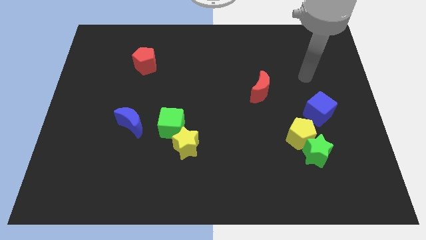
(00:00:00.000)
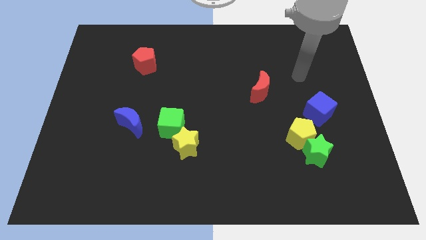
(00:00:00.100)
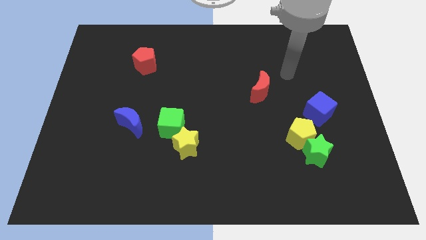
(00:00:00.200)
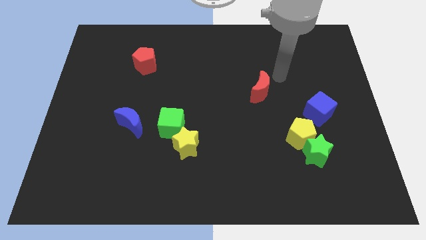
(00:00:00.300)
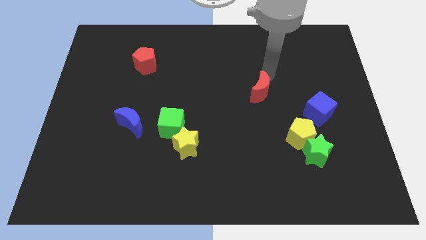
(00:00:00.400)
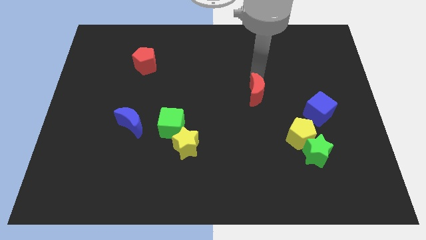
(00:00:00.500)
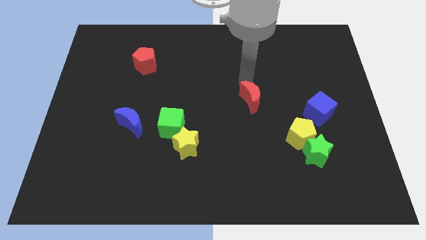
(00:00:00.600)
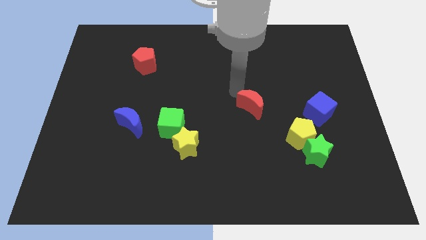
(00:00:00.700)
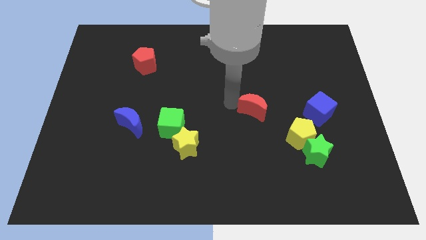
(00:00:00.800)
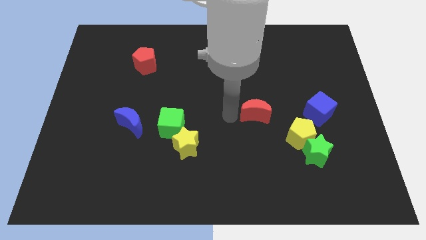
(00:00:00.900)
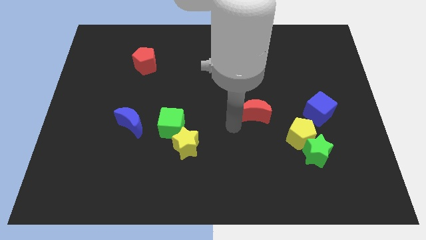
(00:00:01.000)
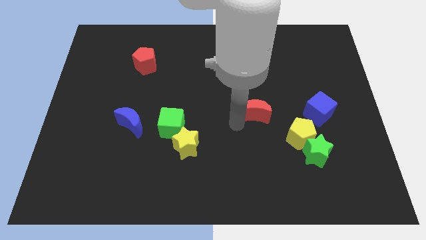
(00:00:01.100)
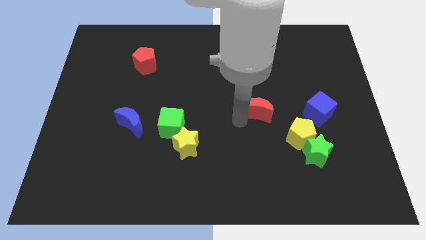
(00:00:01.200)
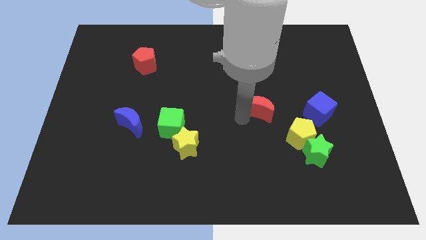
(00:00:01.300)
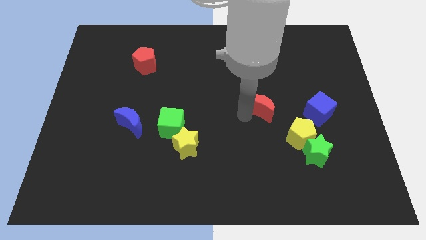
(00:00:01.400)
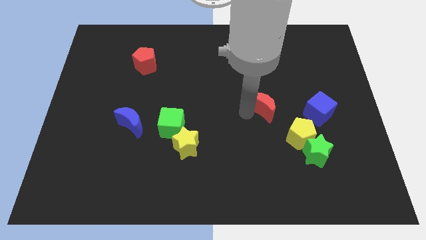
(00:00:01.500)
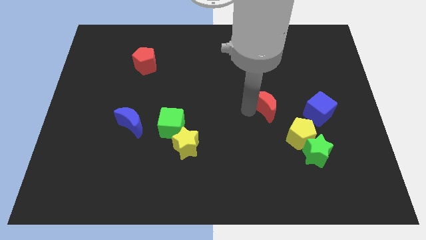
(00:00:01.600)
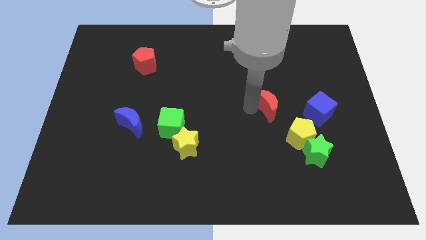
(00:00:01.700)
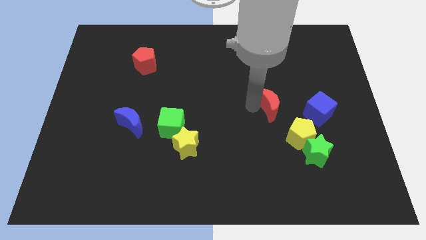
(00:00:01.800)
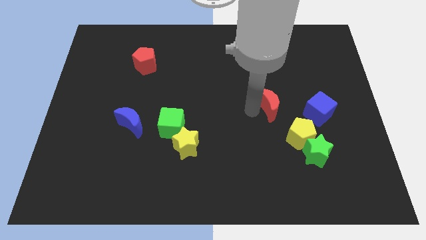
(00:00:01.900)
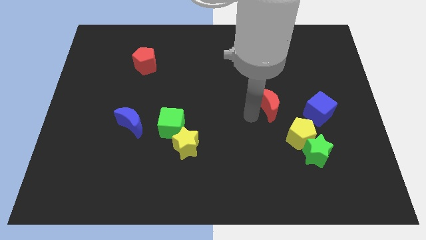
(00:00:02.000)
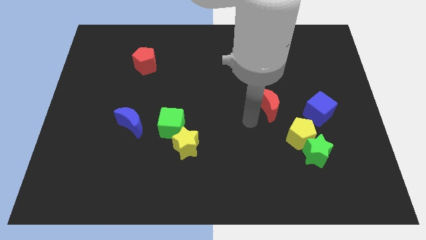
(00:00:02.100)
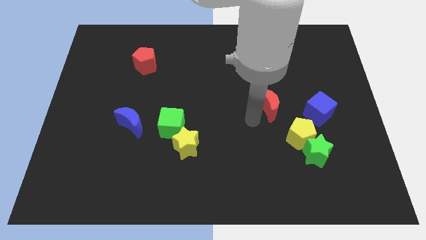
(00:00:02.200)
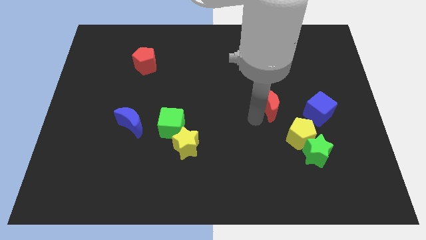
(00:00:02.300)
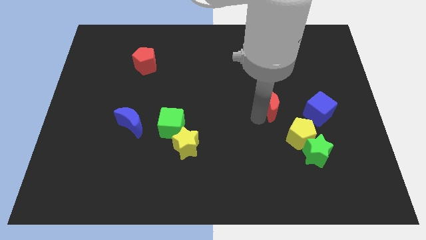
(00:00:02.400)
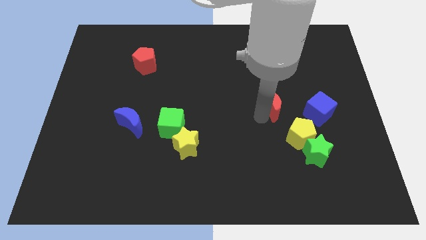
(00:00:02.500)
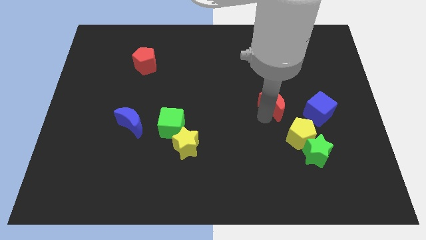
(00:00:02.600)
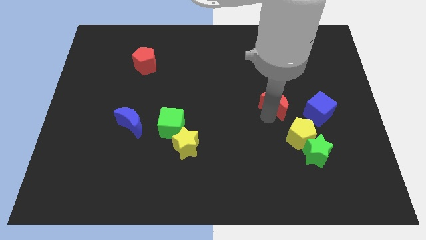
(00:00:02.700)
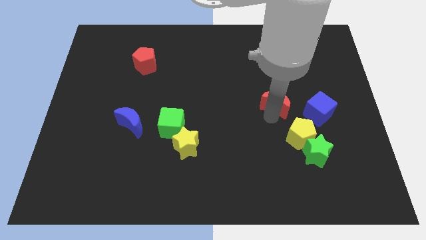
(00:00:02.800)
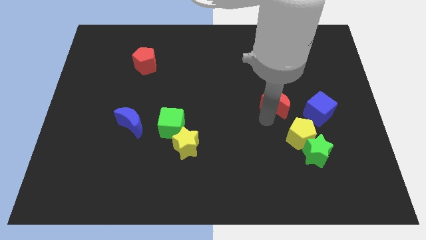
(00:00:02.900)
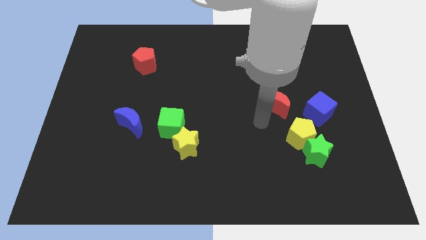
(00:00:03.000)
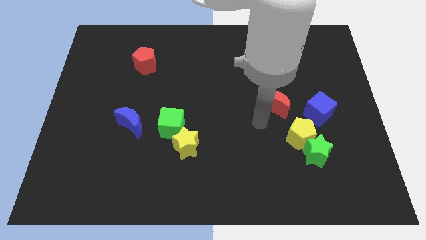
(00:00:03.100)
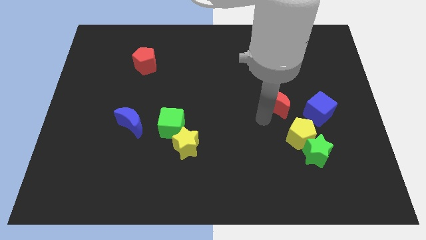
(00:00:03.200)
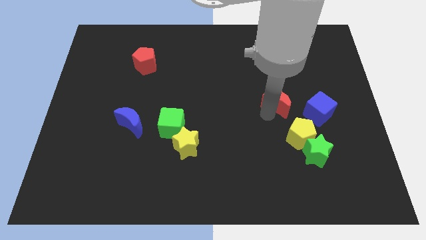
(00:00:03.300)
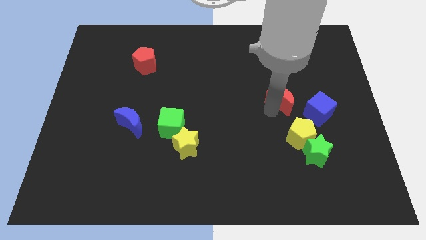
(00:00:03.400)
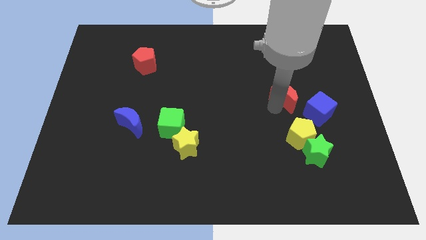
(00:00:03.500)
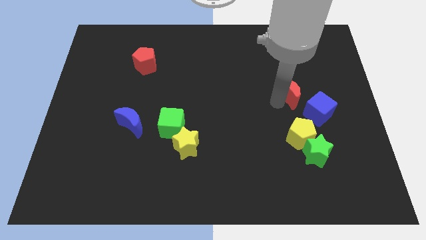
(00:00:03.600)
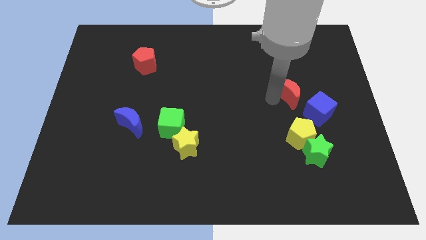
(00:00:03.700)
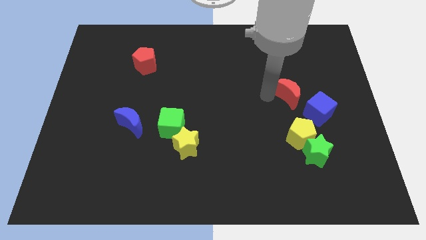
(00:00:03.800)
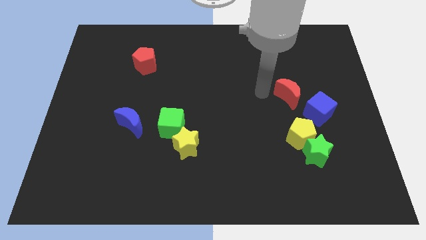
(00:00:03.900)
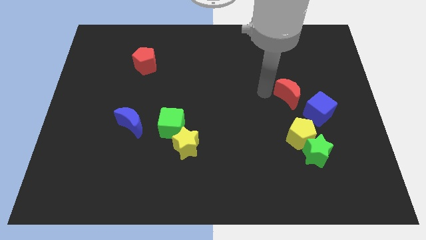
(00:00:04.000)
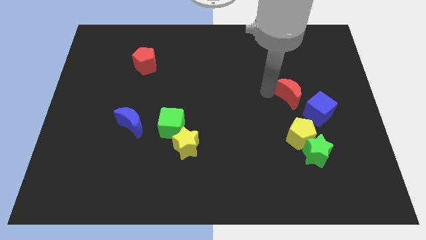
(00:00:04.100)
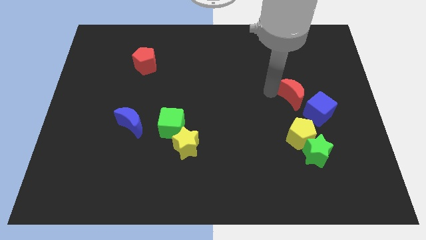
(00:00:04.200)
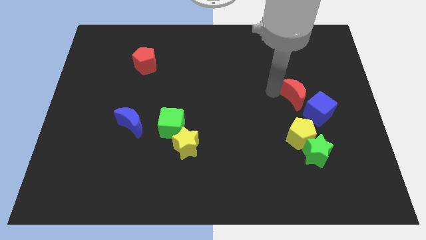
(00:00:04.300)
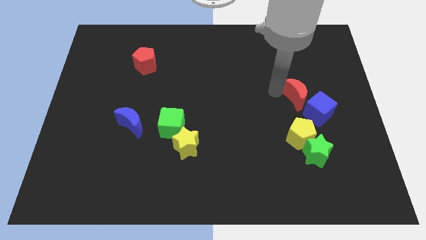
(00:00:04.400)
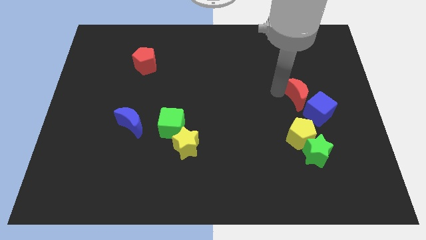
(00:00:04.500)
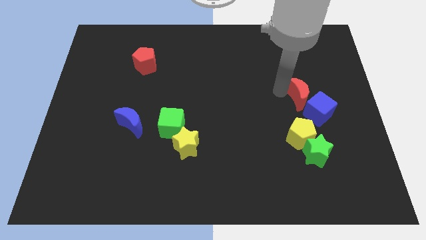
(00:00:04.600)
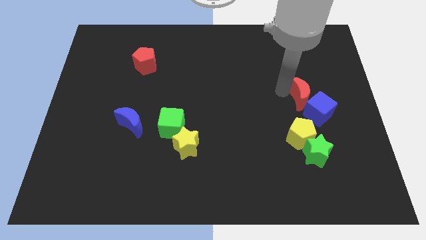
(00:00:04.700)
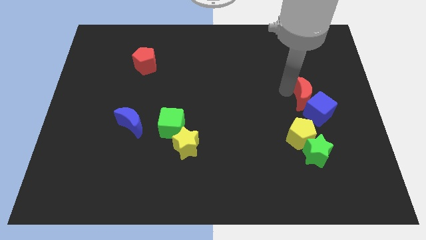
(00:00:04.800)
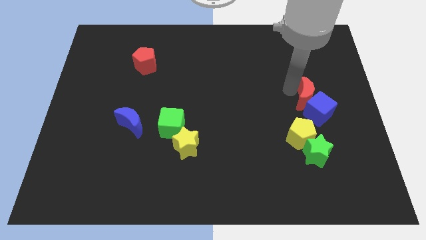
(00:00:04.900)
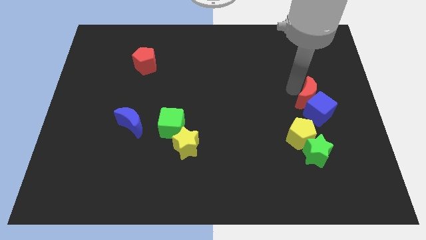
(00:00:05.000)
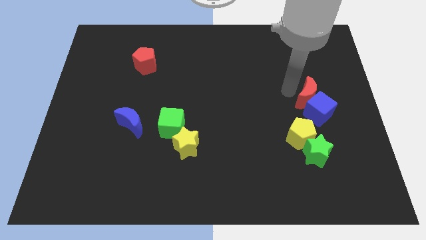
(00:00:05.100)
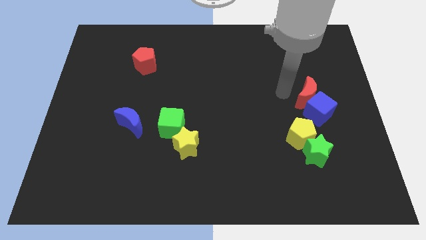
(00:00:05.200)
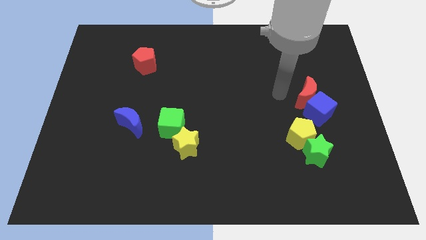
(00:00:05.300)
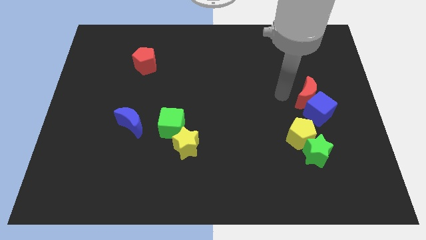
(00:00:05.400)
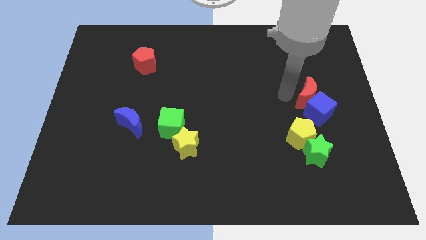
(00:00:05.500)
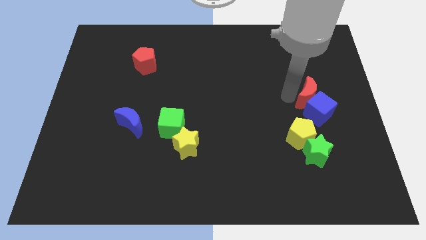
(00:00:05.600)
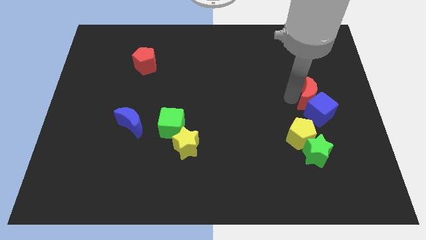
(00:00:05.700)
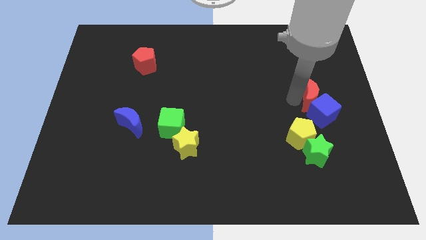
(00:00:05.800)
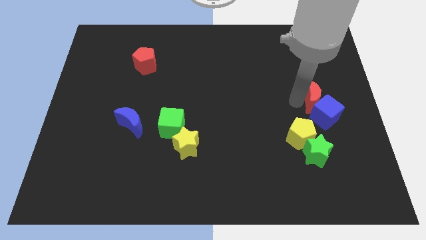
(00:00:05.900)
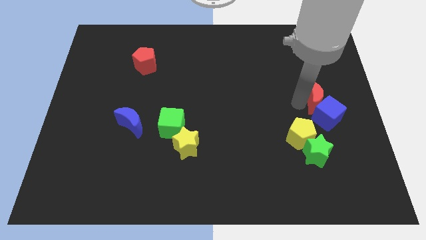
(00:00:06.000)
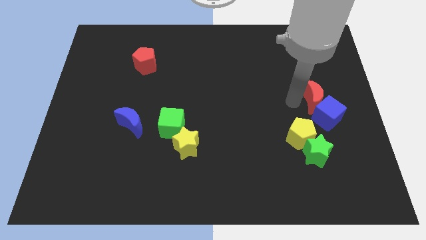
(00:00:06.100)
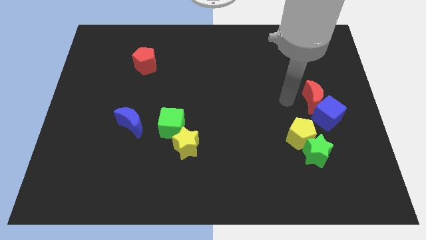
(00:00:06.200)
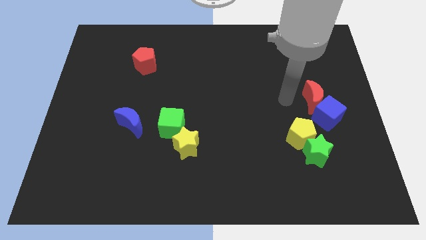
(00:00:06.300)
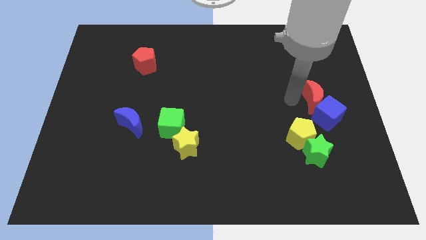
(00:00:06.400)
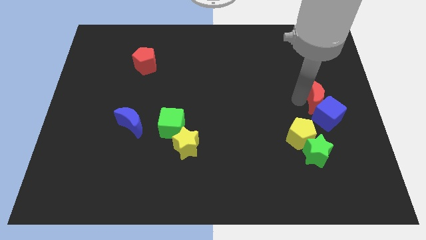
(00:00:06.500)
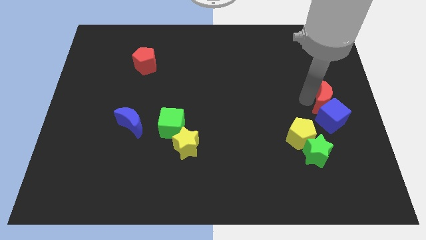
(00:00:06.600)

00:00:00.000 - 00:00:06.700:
push the red moon to the right side
